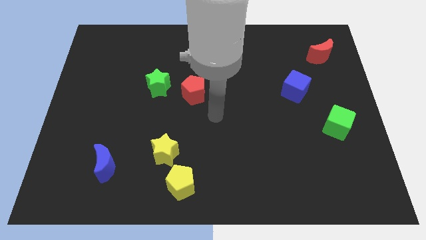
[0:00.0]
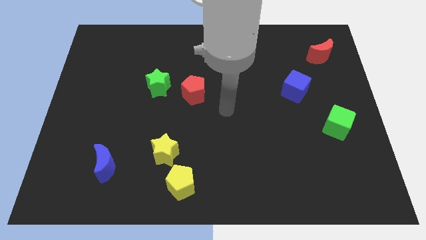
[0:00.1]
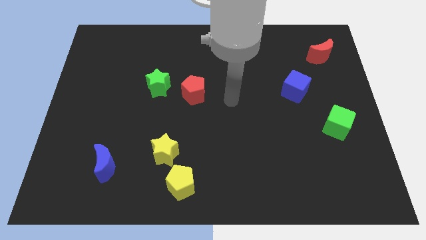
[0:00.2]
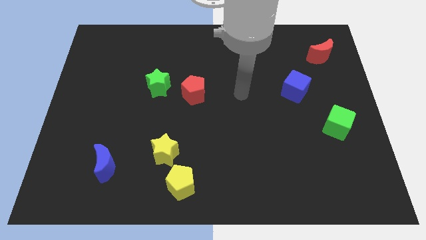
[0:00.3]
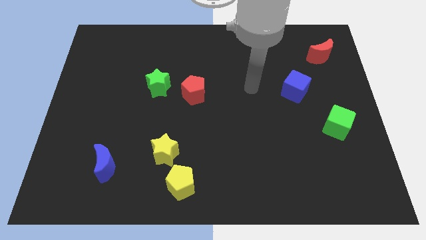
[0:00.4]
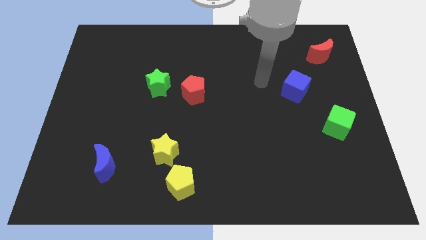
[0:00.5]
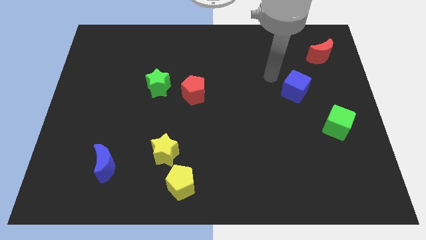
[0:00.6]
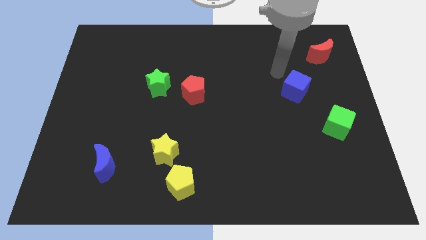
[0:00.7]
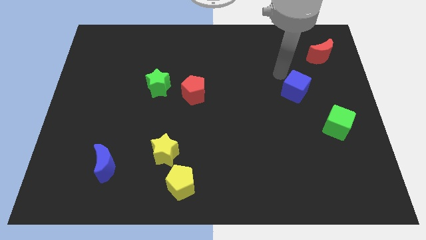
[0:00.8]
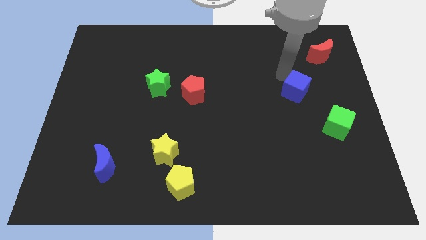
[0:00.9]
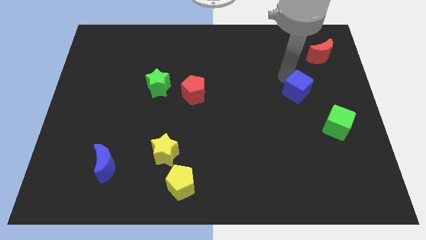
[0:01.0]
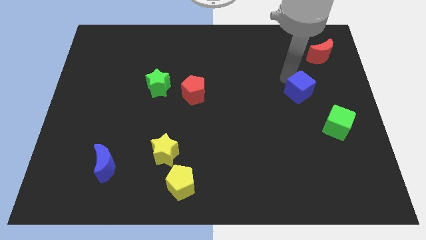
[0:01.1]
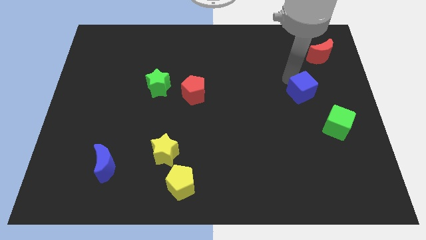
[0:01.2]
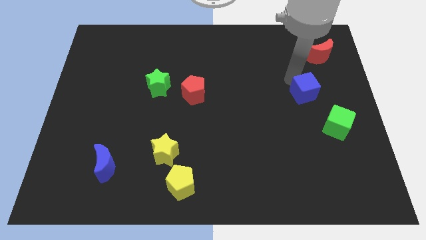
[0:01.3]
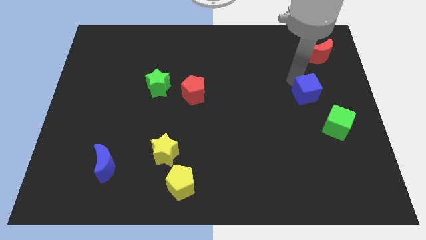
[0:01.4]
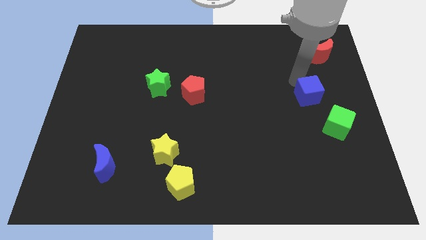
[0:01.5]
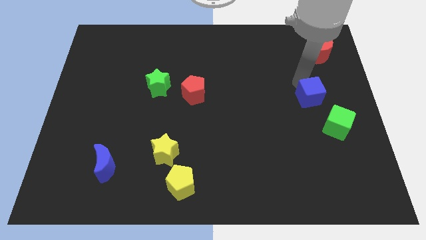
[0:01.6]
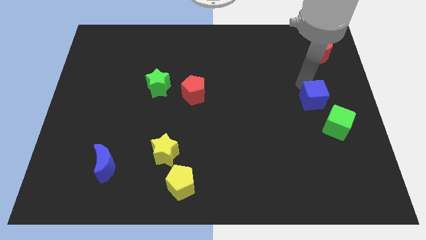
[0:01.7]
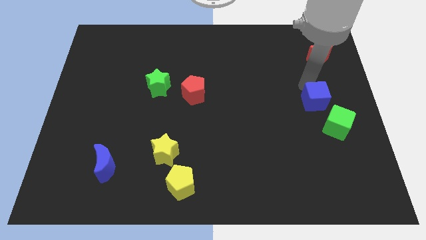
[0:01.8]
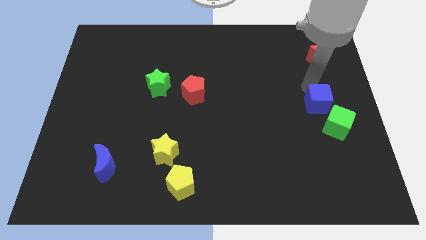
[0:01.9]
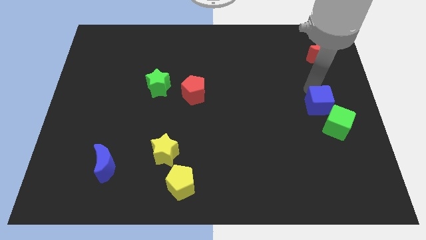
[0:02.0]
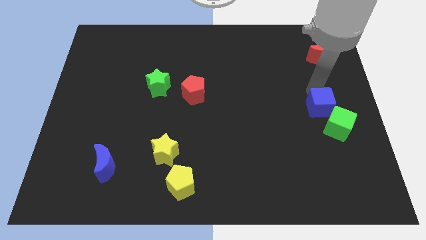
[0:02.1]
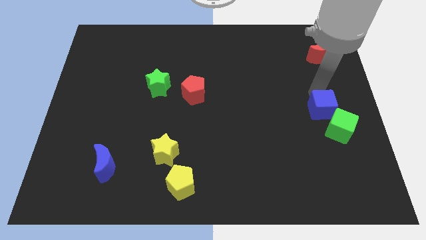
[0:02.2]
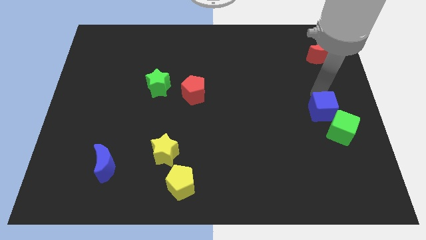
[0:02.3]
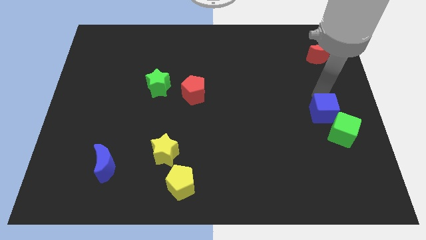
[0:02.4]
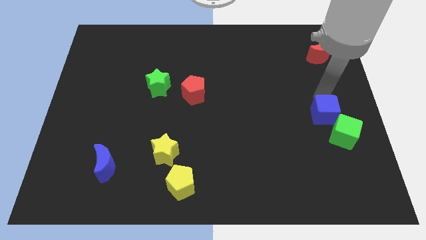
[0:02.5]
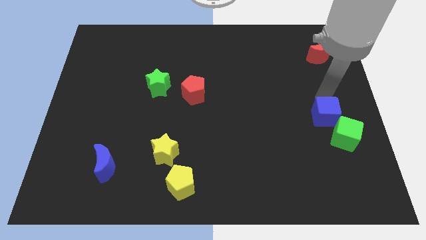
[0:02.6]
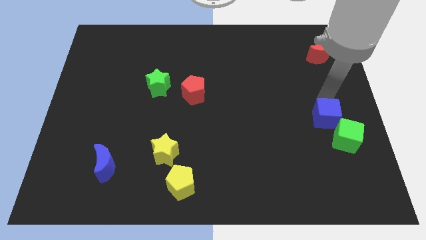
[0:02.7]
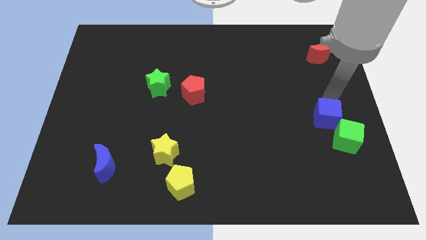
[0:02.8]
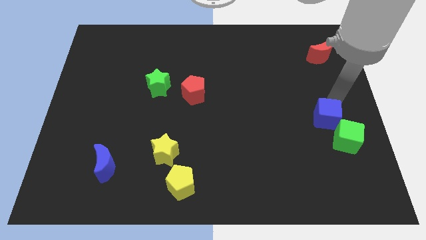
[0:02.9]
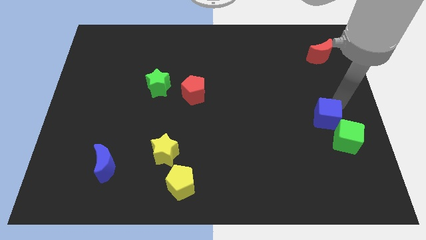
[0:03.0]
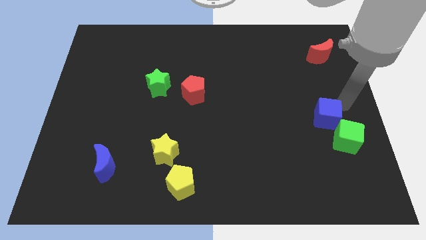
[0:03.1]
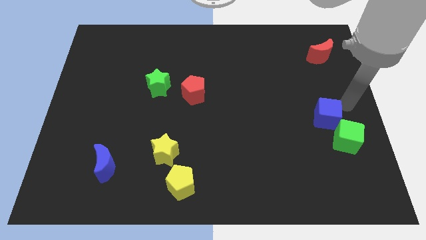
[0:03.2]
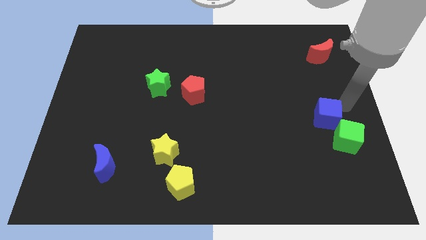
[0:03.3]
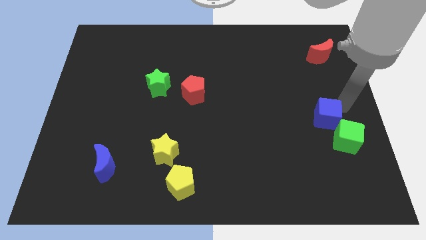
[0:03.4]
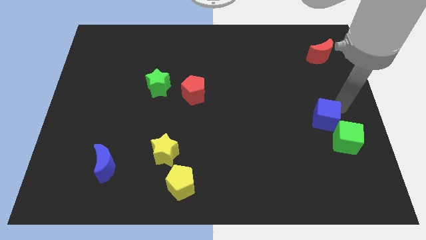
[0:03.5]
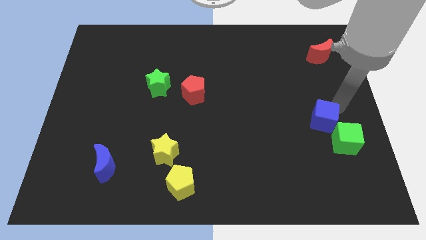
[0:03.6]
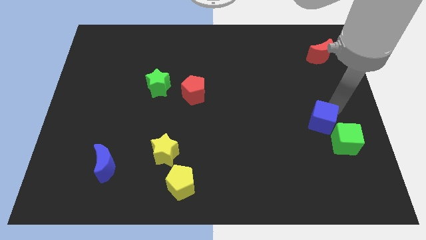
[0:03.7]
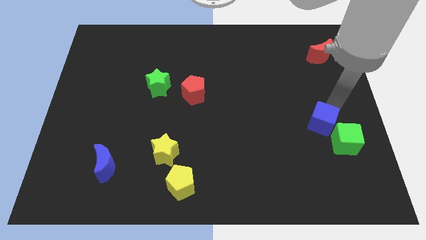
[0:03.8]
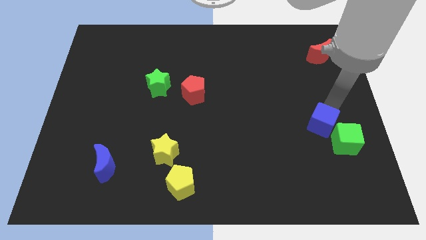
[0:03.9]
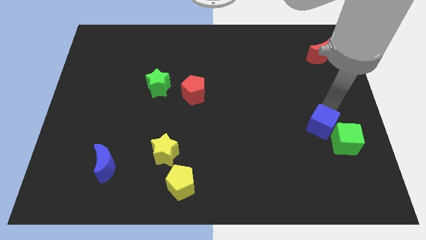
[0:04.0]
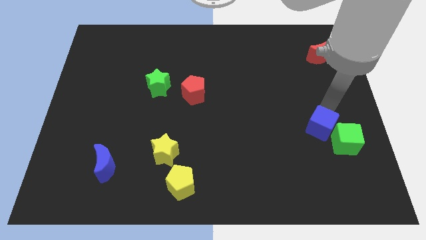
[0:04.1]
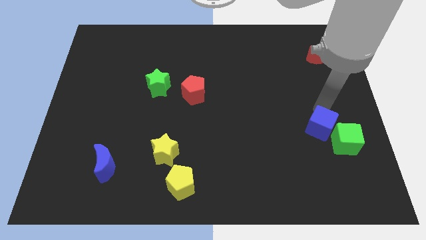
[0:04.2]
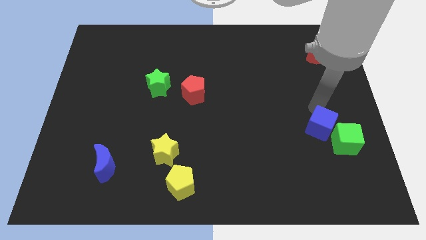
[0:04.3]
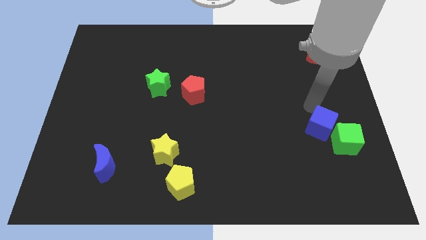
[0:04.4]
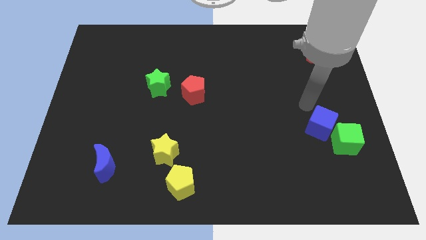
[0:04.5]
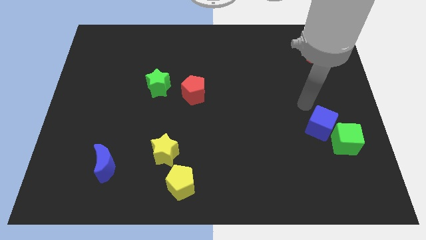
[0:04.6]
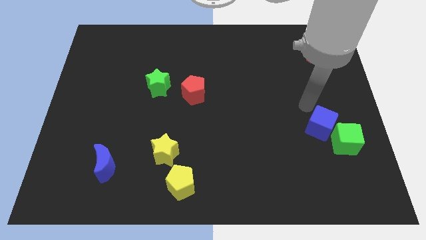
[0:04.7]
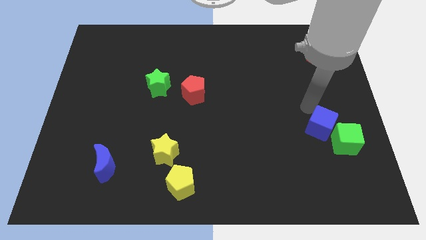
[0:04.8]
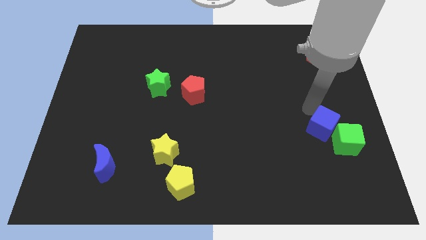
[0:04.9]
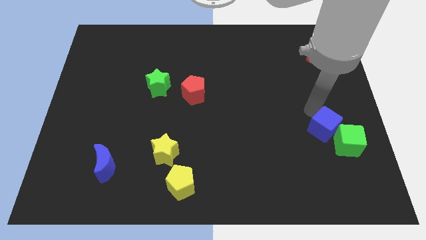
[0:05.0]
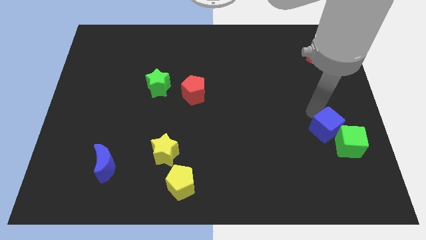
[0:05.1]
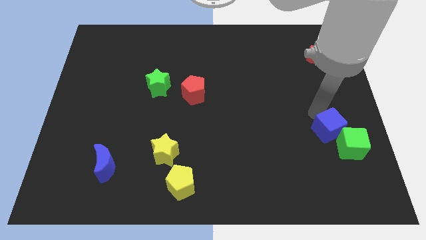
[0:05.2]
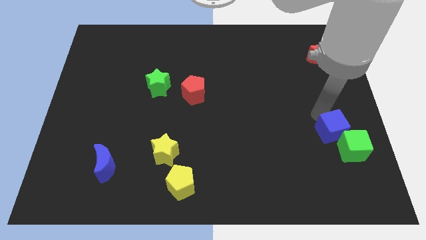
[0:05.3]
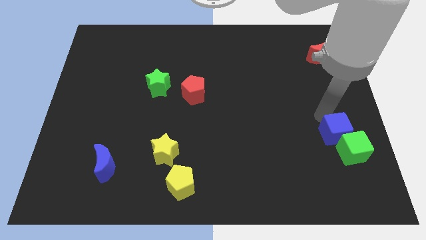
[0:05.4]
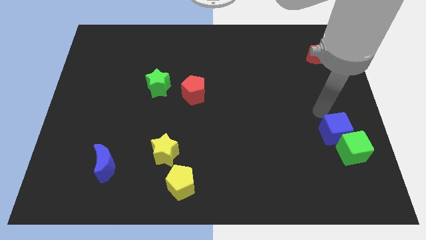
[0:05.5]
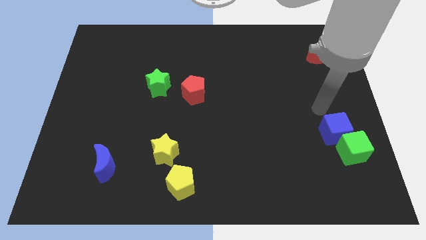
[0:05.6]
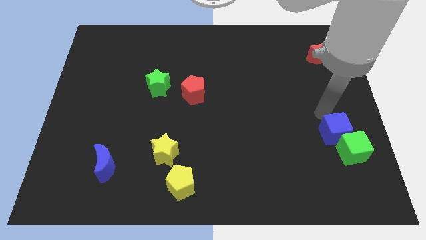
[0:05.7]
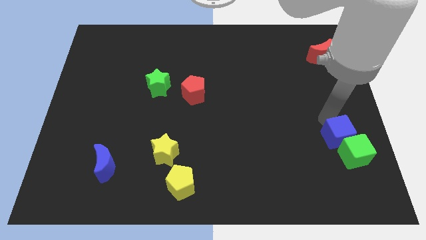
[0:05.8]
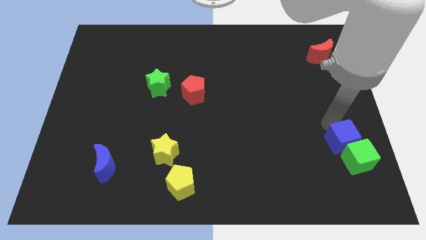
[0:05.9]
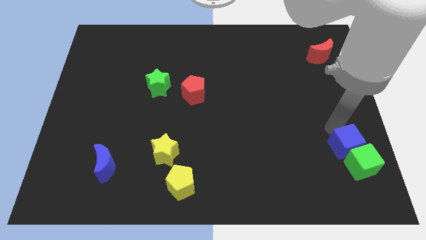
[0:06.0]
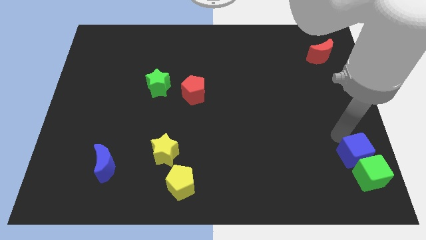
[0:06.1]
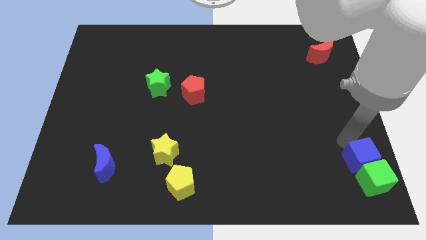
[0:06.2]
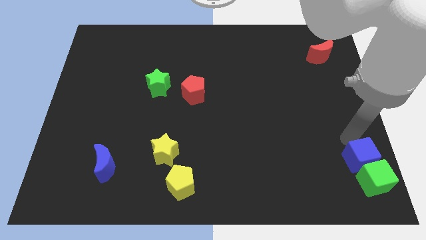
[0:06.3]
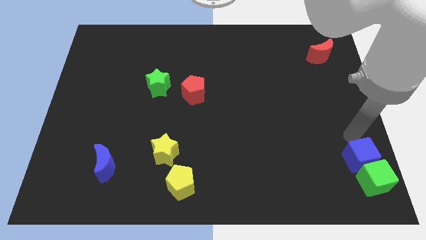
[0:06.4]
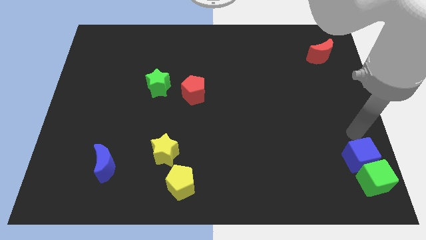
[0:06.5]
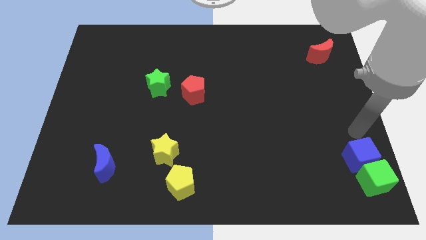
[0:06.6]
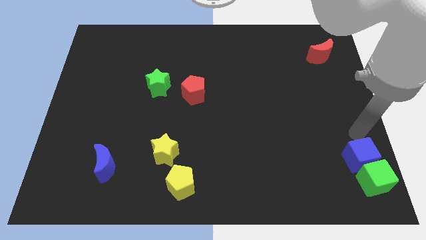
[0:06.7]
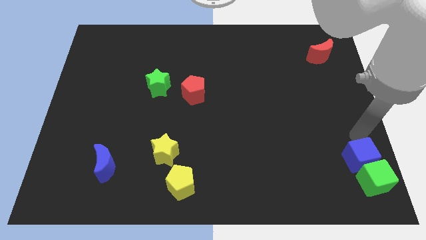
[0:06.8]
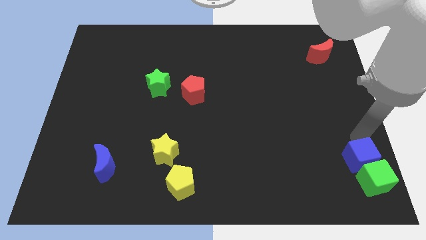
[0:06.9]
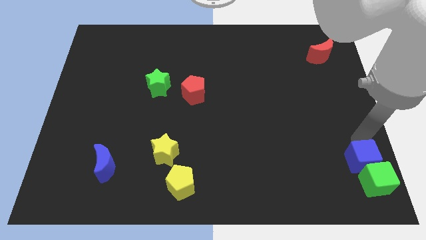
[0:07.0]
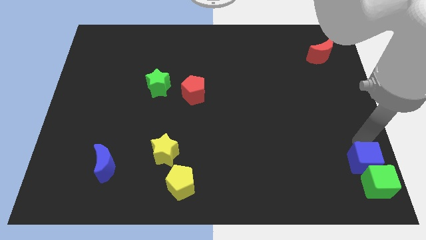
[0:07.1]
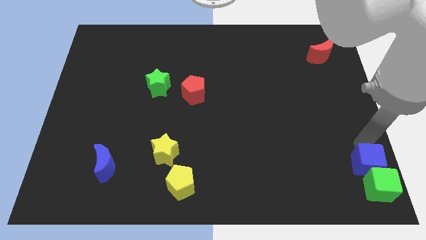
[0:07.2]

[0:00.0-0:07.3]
push the blue cube to the bottom right of the board

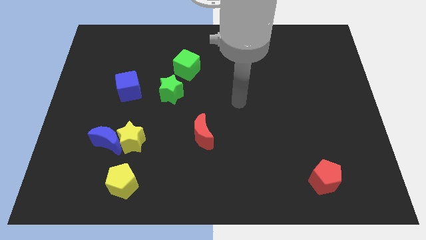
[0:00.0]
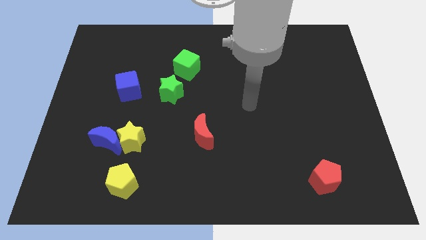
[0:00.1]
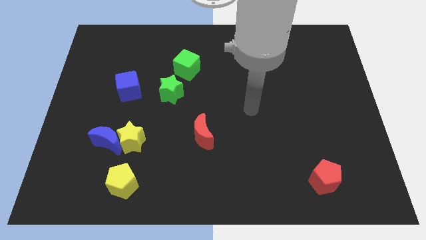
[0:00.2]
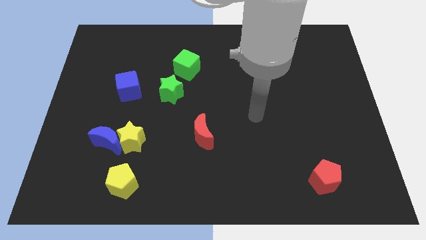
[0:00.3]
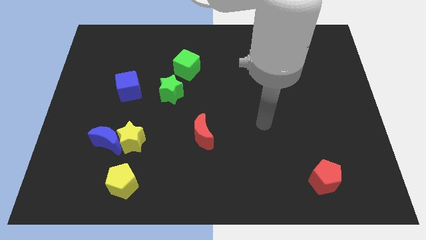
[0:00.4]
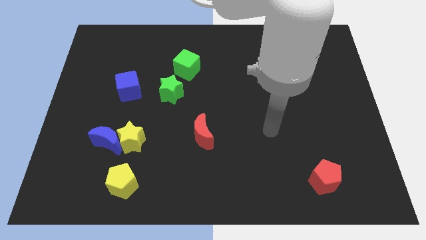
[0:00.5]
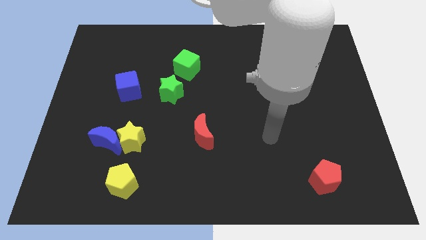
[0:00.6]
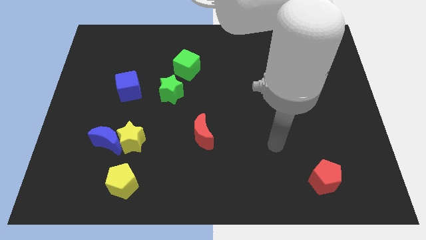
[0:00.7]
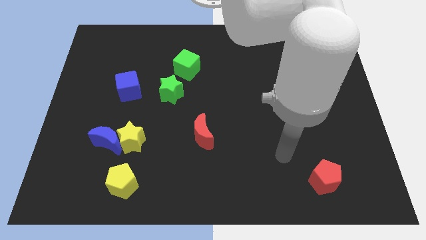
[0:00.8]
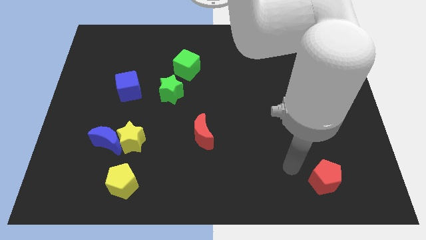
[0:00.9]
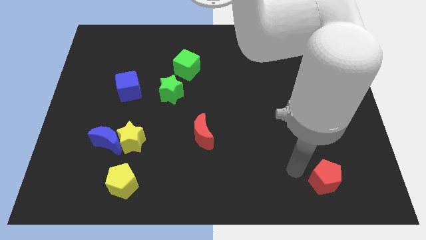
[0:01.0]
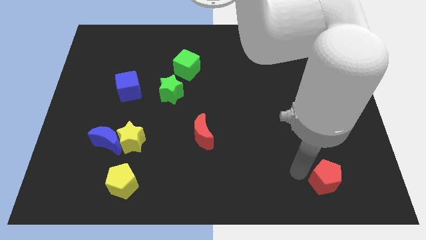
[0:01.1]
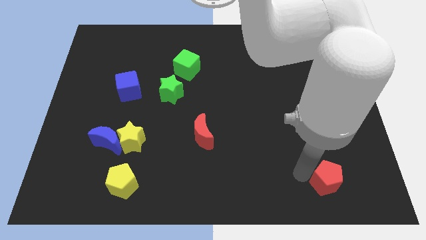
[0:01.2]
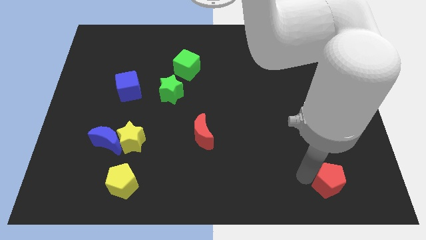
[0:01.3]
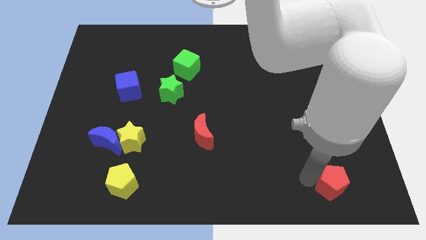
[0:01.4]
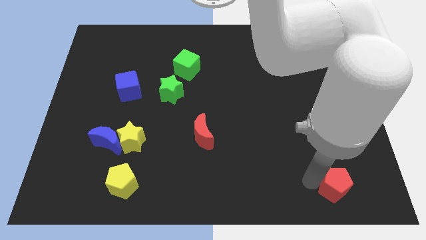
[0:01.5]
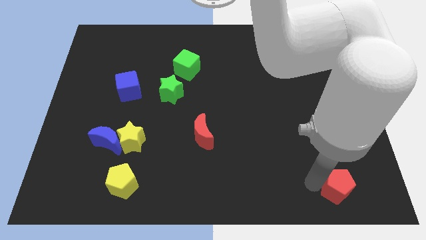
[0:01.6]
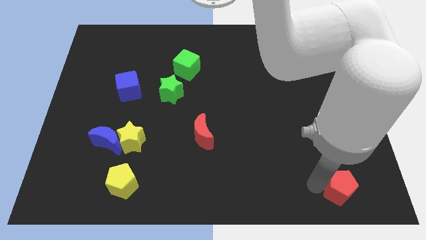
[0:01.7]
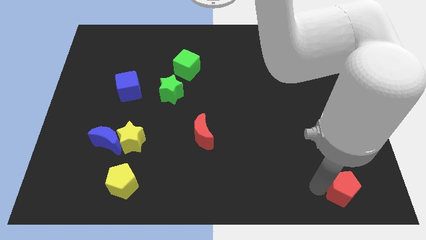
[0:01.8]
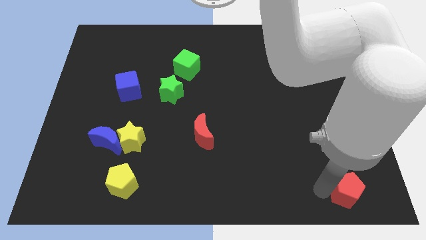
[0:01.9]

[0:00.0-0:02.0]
put the red pentagon to the bottom right corner
